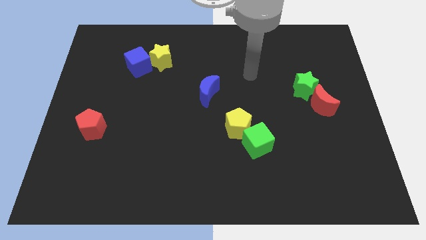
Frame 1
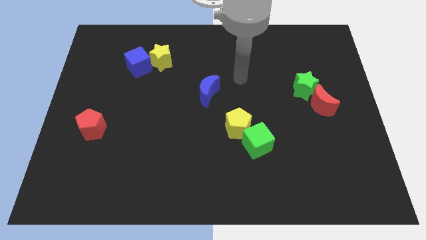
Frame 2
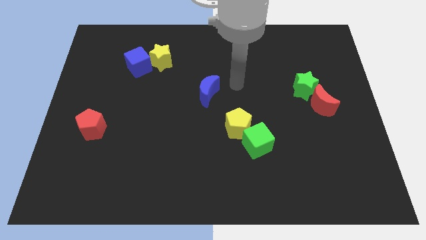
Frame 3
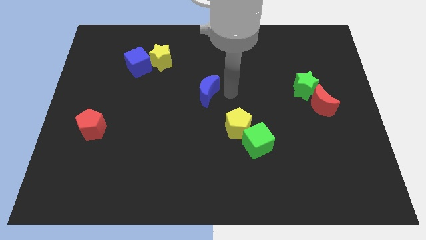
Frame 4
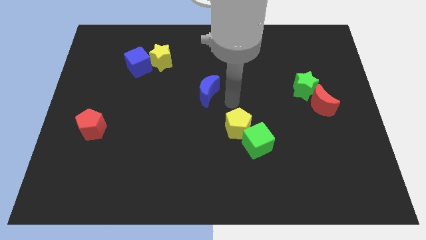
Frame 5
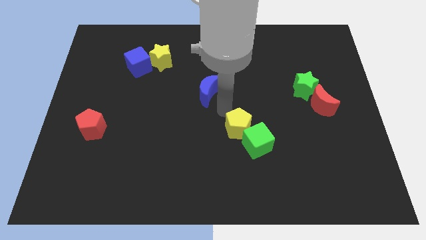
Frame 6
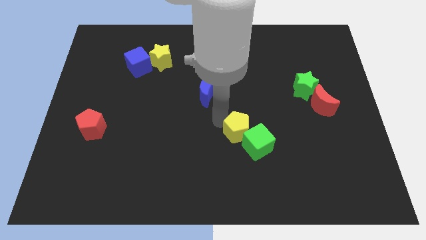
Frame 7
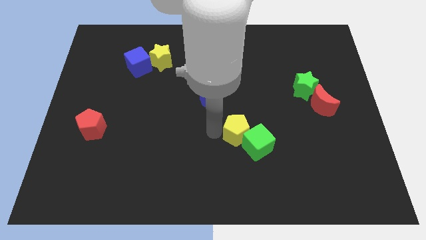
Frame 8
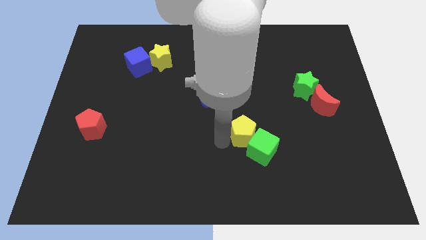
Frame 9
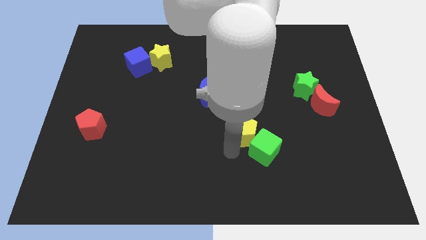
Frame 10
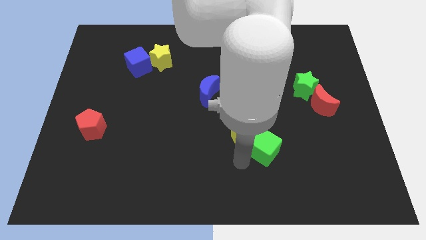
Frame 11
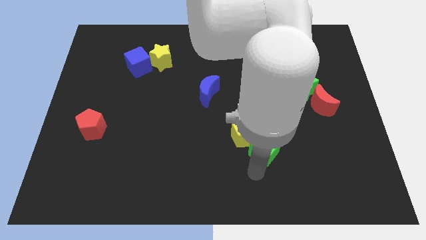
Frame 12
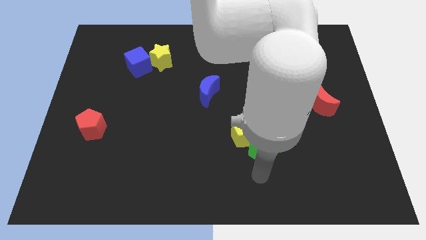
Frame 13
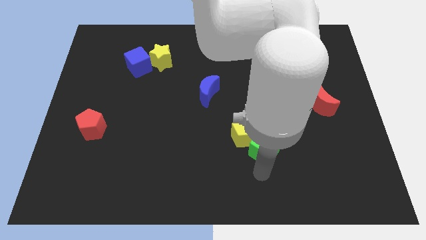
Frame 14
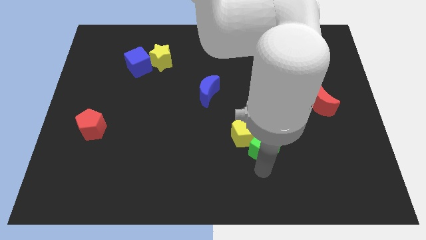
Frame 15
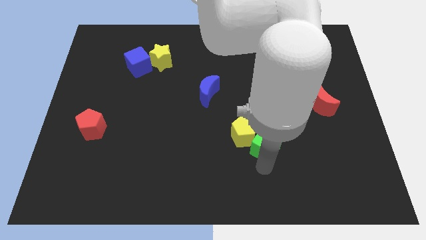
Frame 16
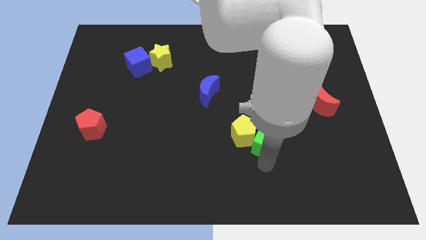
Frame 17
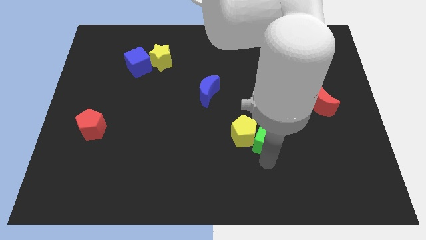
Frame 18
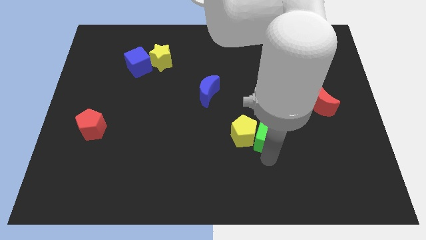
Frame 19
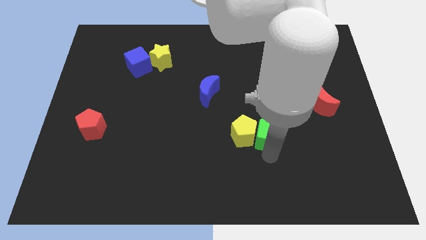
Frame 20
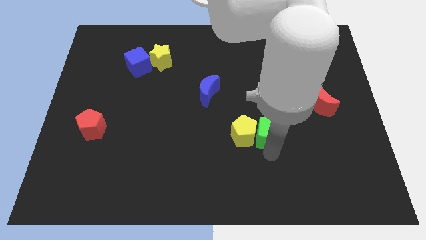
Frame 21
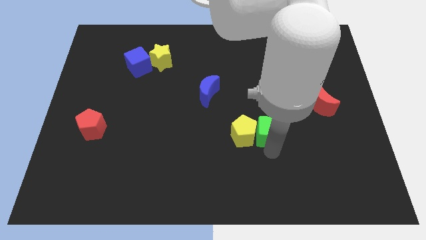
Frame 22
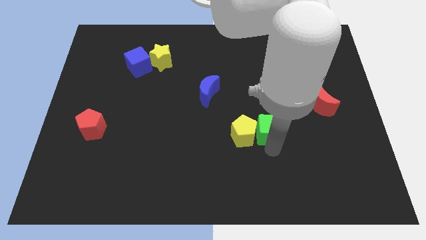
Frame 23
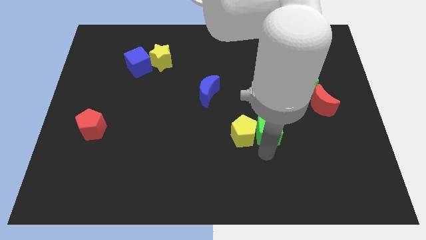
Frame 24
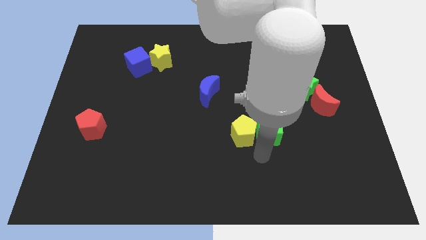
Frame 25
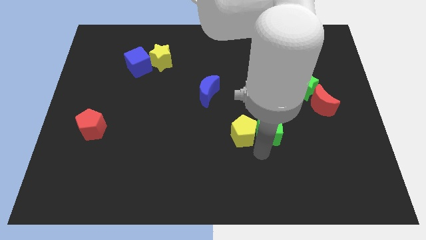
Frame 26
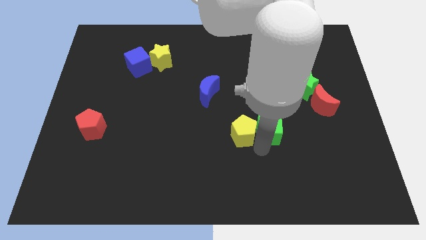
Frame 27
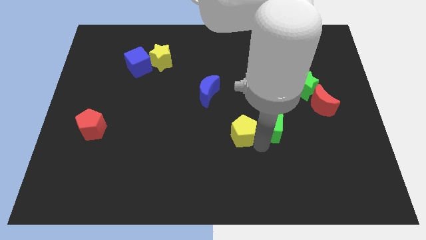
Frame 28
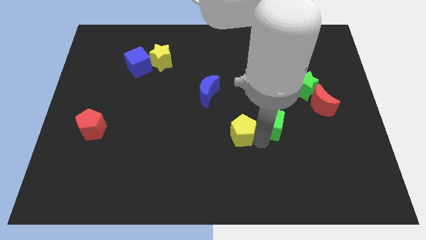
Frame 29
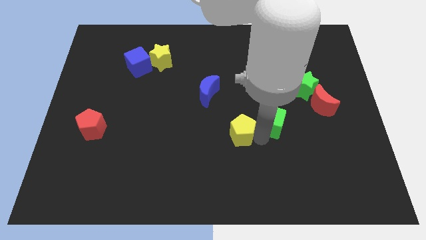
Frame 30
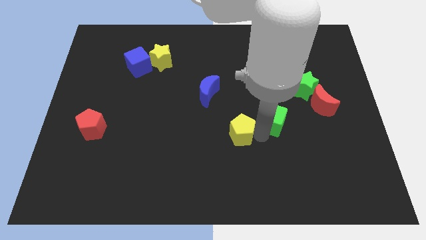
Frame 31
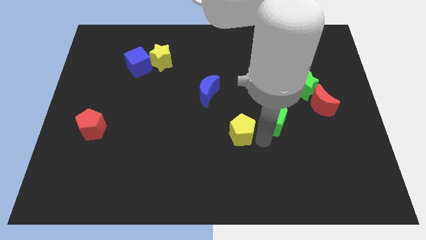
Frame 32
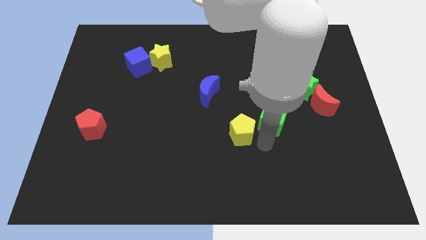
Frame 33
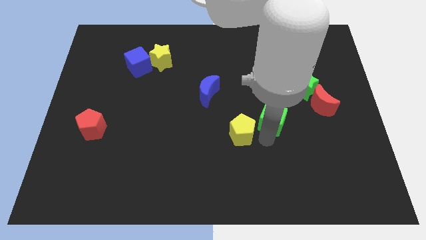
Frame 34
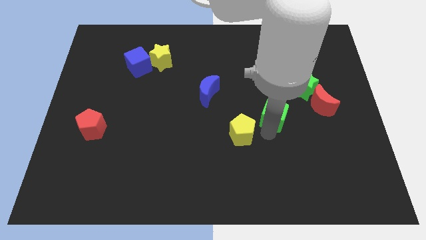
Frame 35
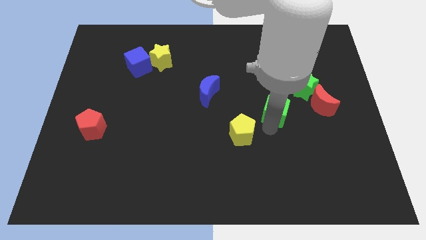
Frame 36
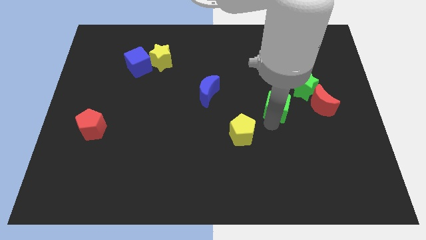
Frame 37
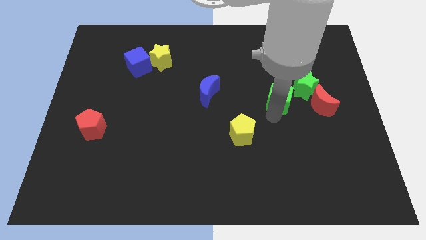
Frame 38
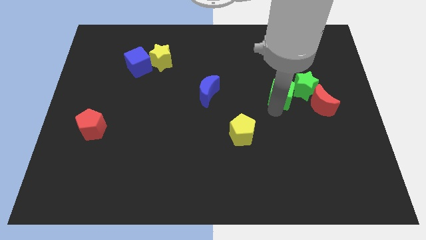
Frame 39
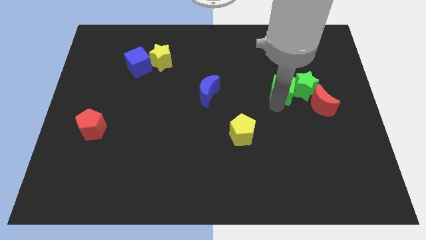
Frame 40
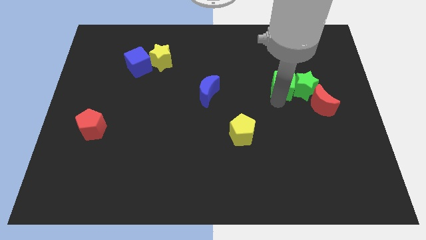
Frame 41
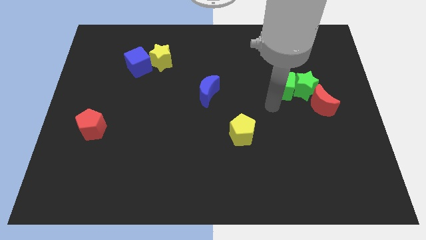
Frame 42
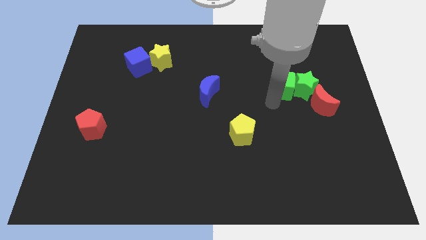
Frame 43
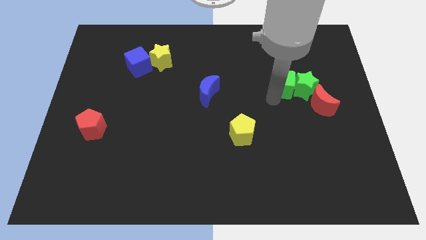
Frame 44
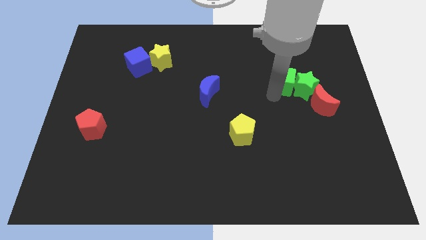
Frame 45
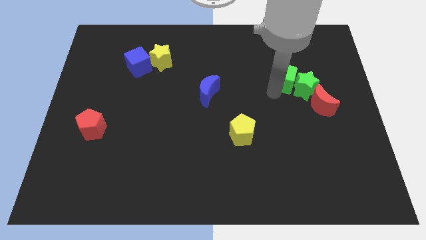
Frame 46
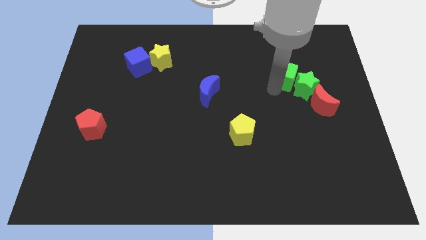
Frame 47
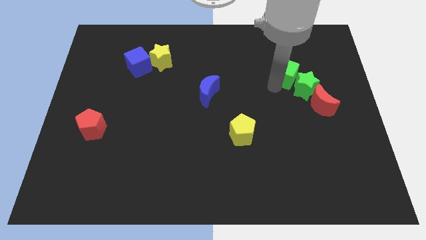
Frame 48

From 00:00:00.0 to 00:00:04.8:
push the green cube to the top side of the green star

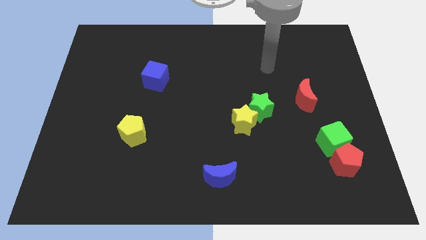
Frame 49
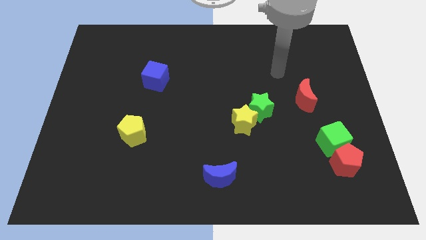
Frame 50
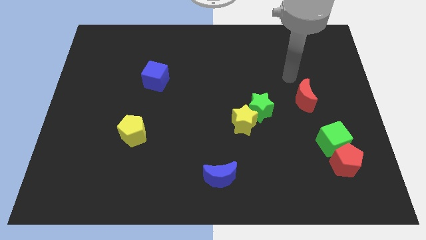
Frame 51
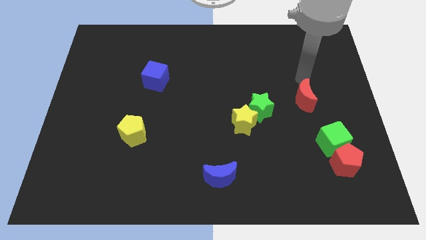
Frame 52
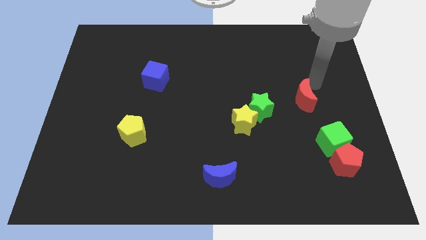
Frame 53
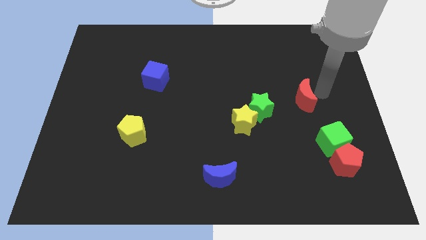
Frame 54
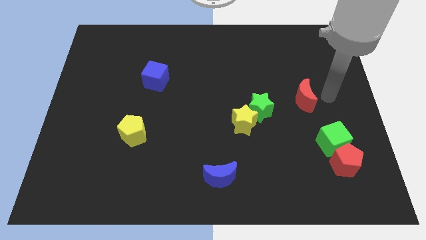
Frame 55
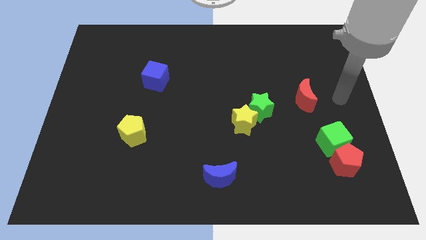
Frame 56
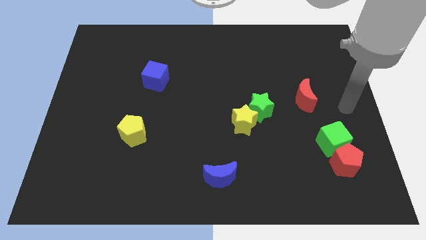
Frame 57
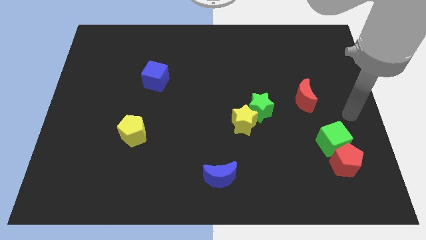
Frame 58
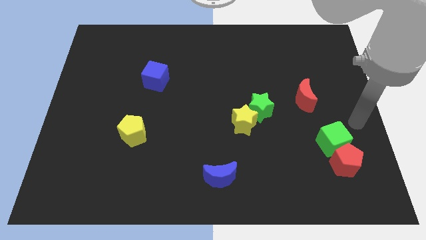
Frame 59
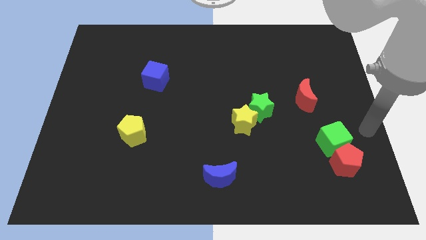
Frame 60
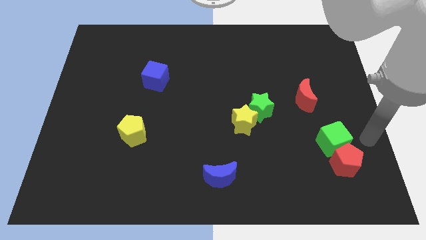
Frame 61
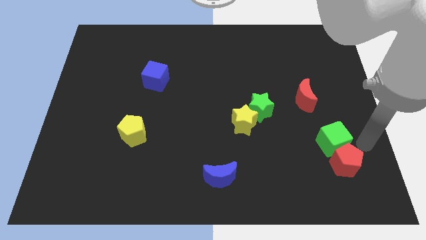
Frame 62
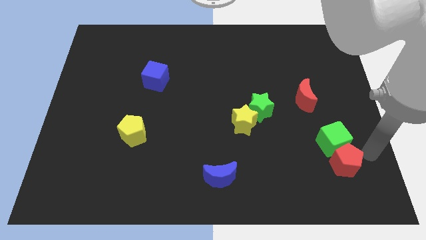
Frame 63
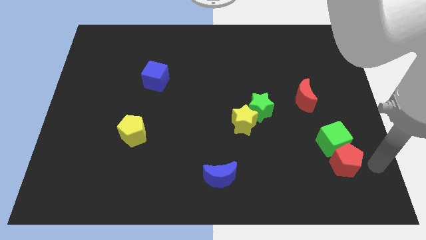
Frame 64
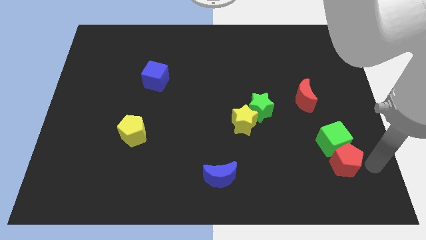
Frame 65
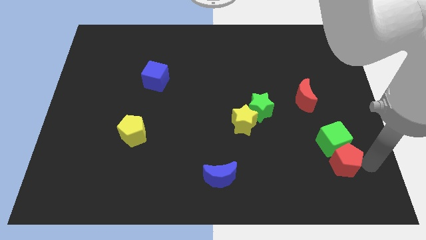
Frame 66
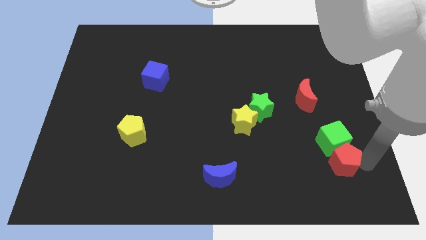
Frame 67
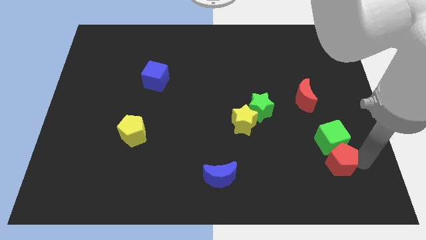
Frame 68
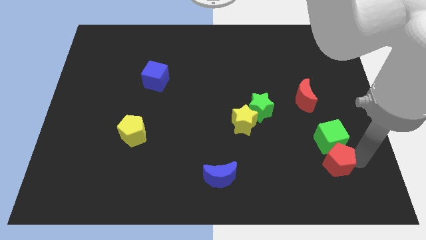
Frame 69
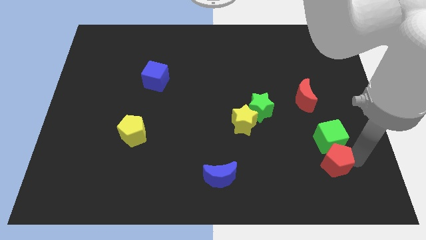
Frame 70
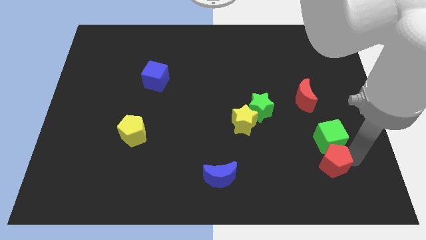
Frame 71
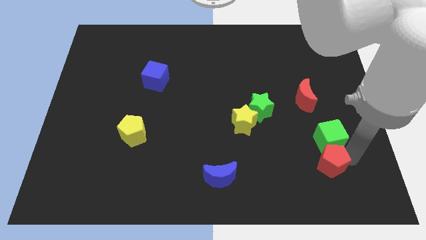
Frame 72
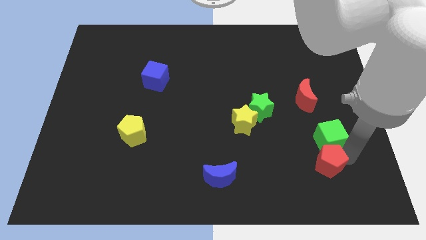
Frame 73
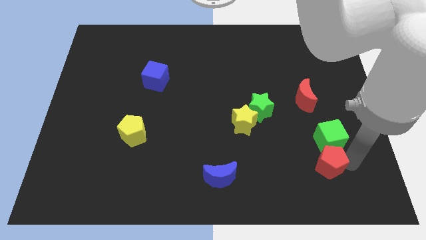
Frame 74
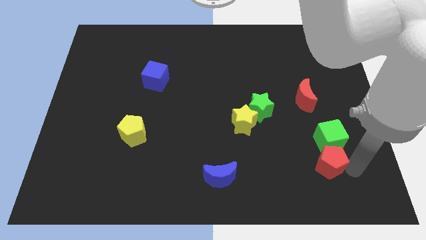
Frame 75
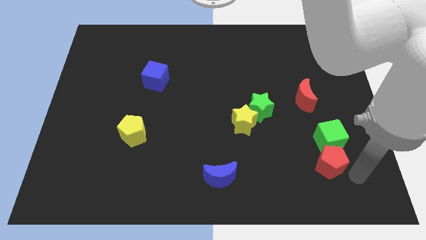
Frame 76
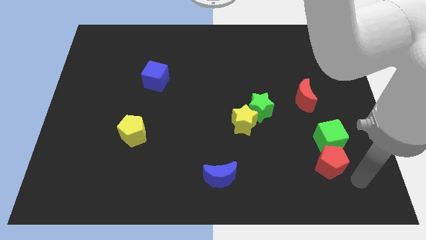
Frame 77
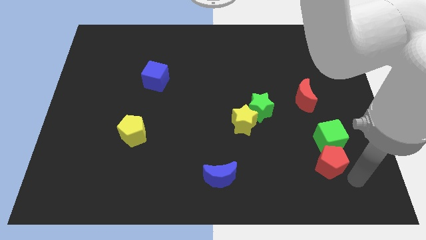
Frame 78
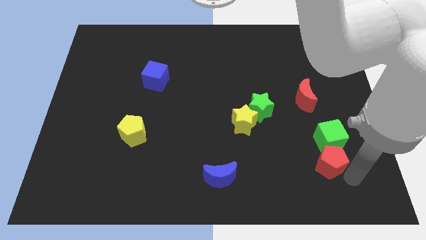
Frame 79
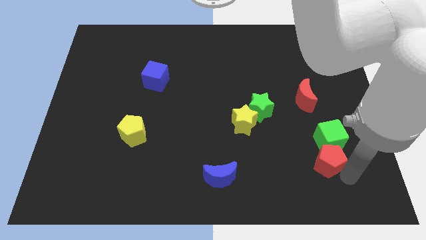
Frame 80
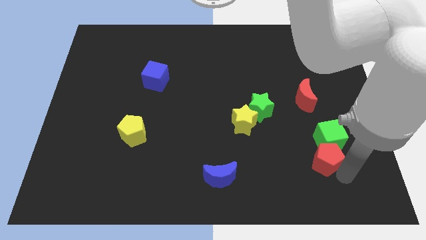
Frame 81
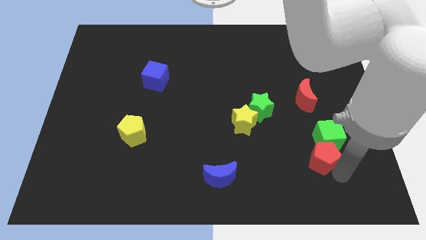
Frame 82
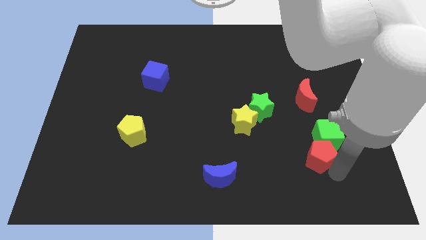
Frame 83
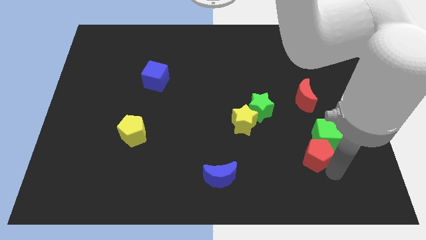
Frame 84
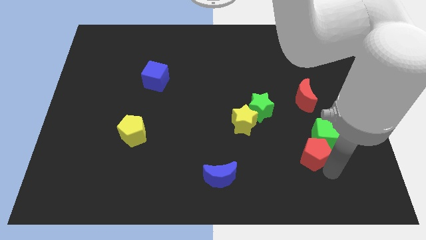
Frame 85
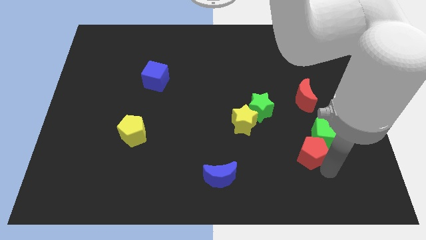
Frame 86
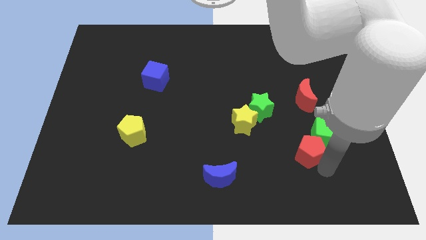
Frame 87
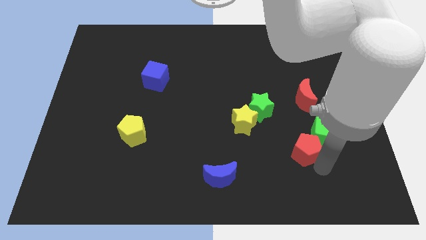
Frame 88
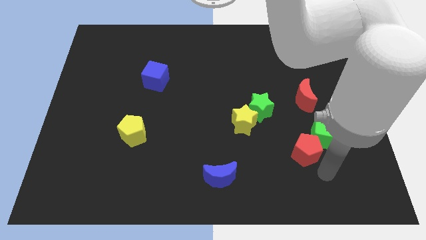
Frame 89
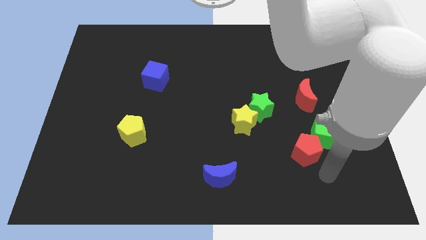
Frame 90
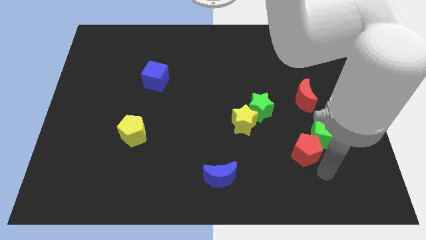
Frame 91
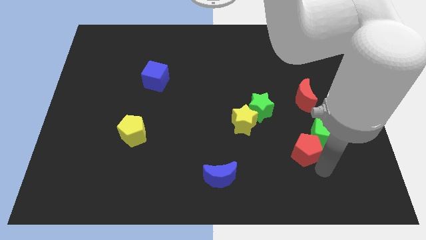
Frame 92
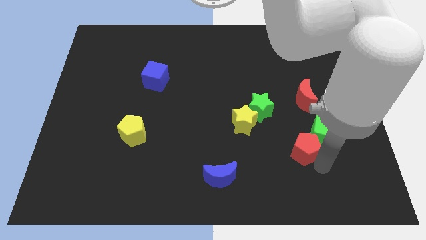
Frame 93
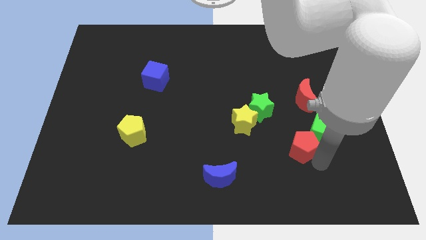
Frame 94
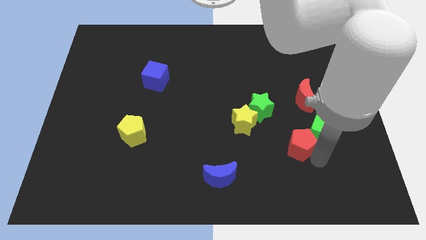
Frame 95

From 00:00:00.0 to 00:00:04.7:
slide the red pentagon to the bottom right of the green star
